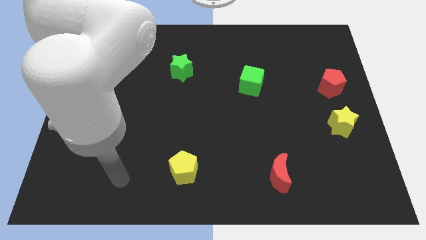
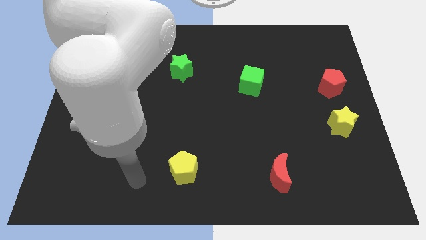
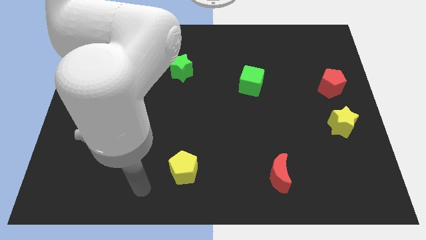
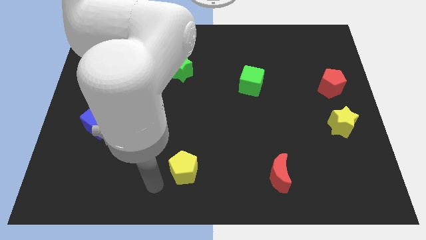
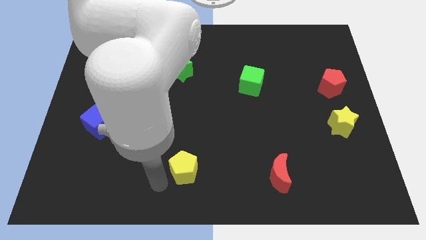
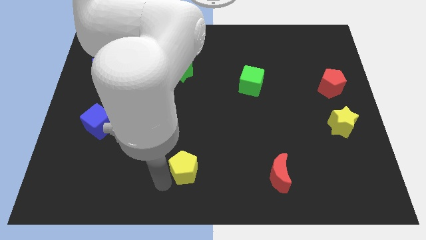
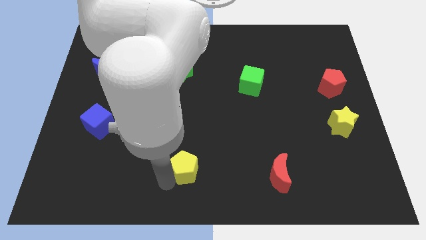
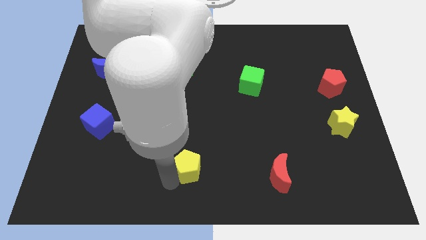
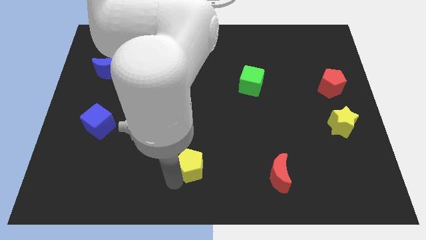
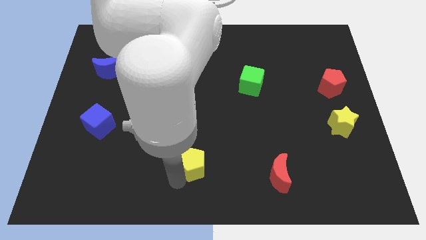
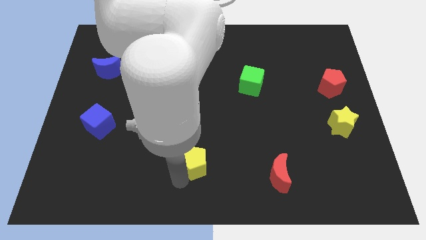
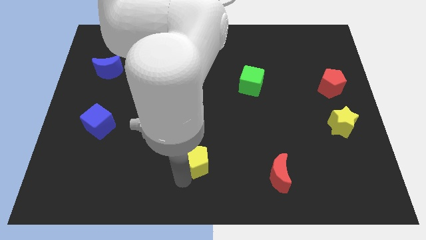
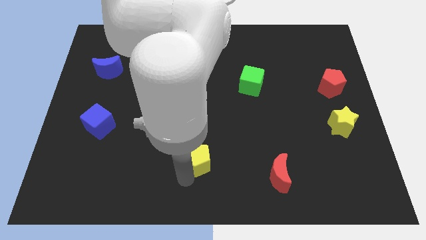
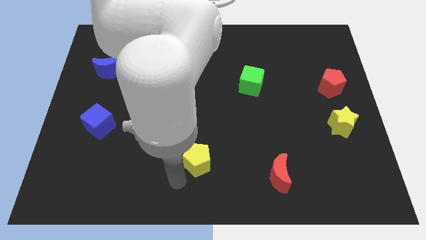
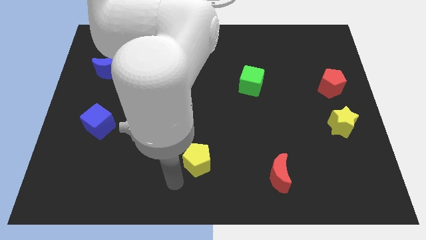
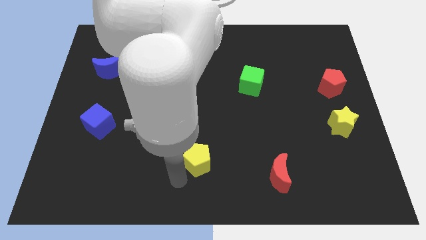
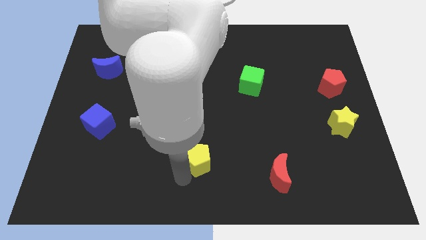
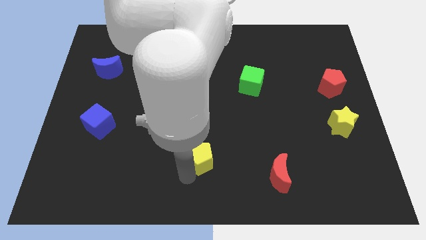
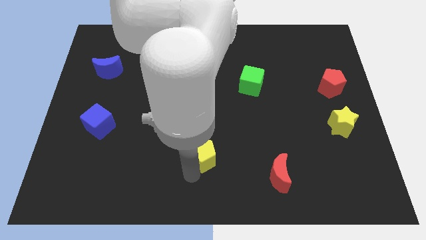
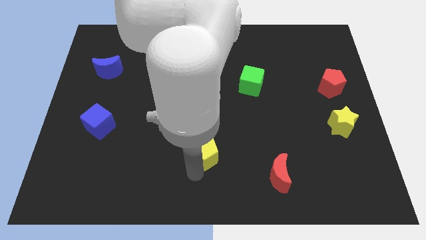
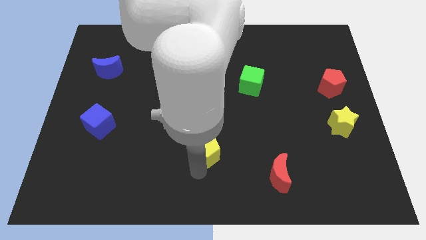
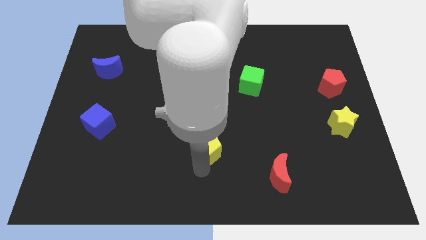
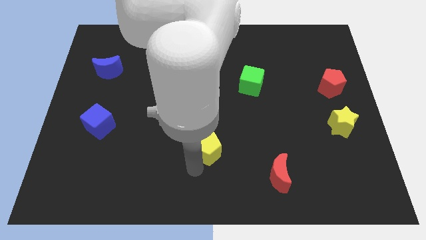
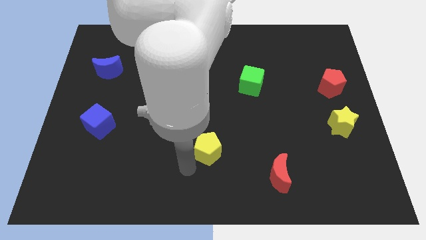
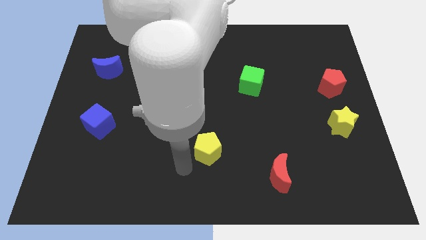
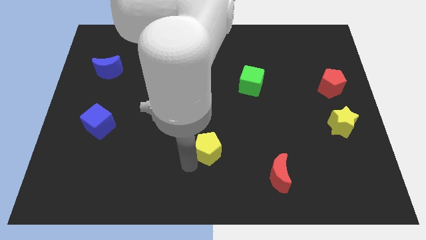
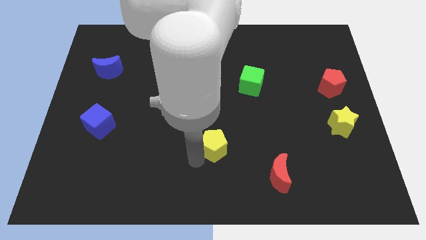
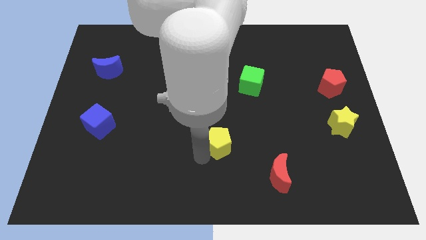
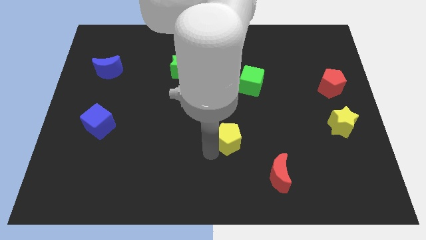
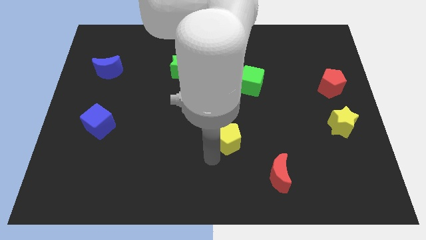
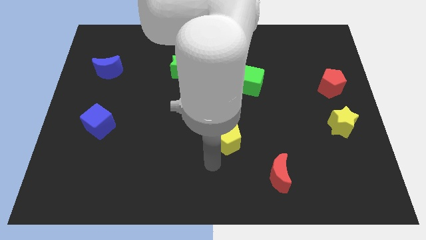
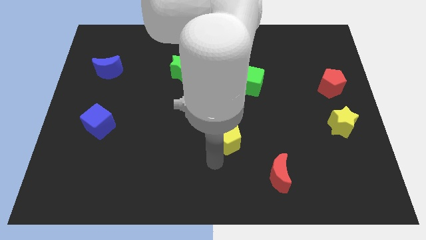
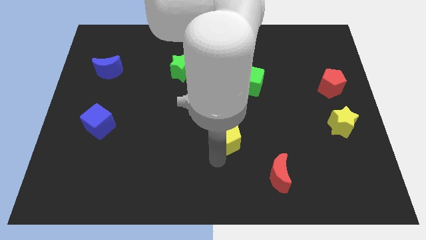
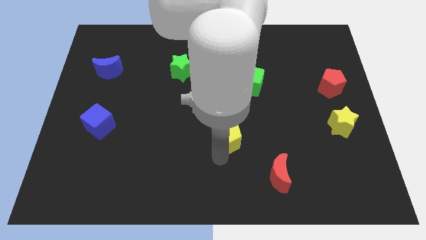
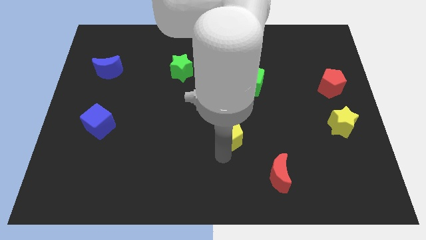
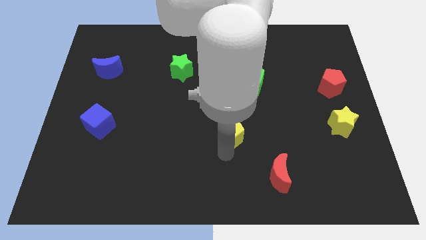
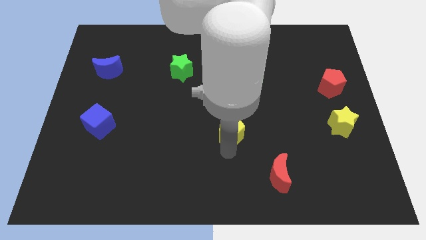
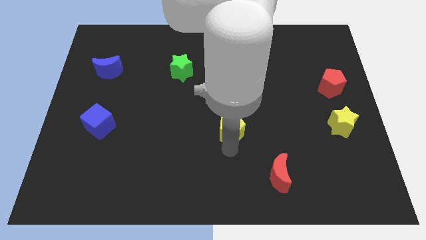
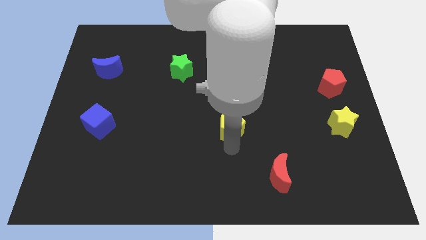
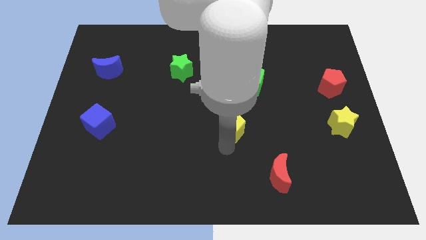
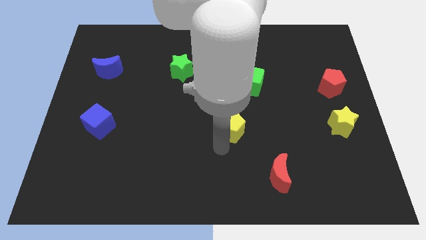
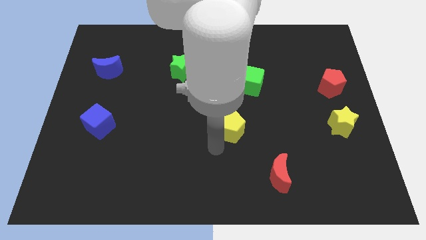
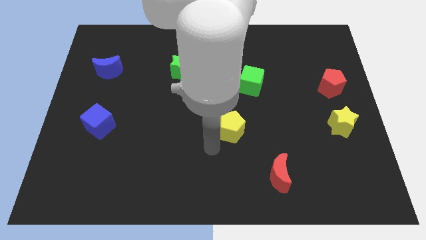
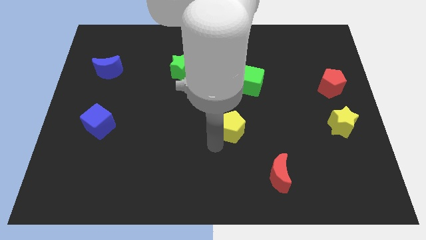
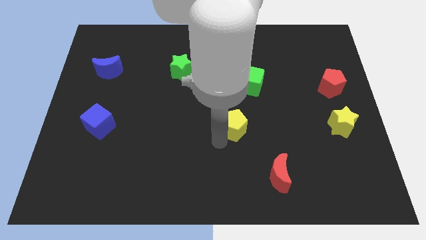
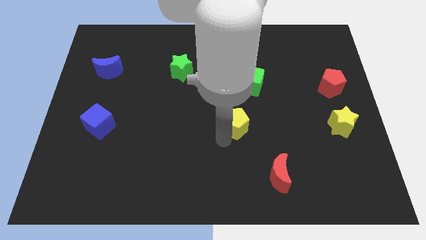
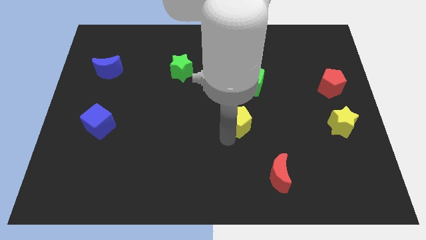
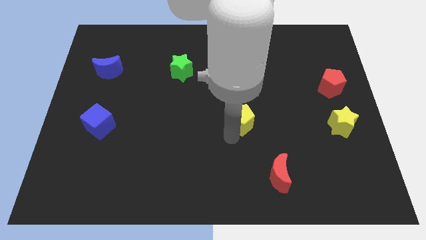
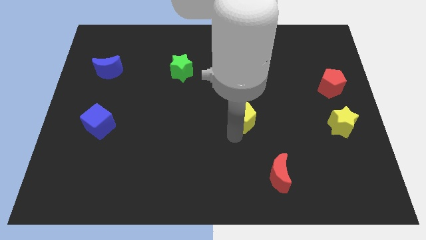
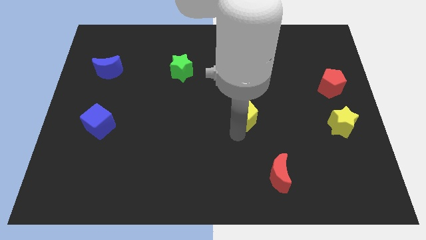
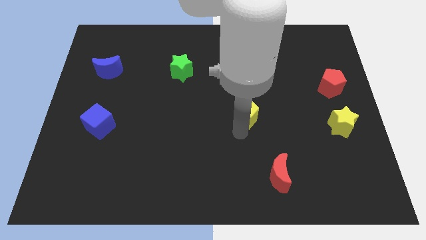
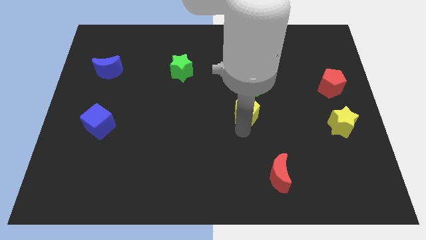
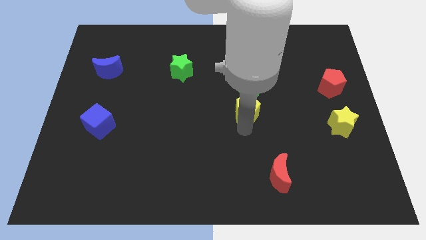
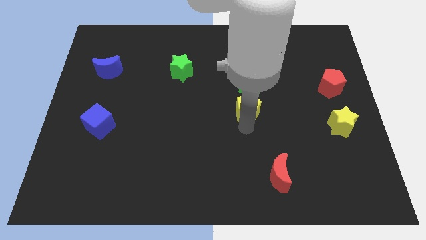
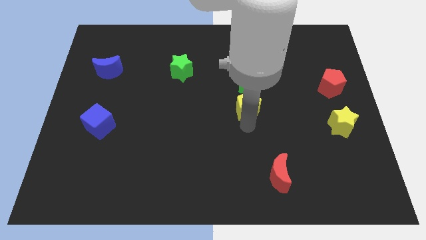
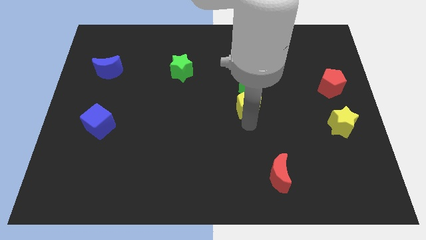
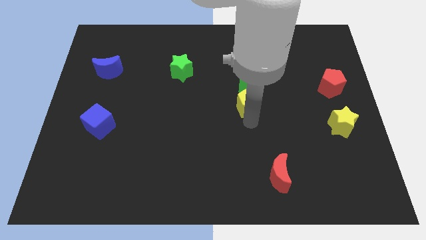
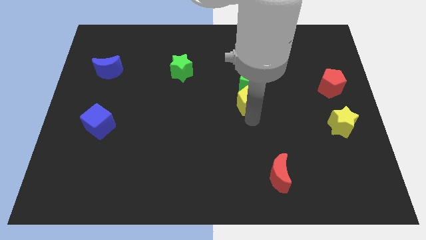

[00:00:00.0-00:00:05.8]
slide the yellow pentagon to the green cube

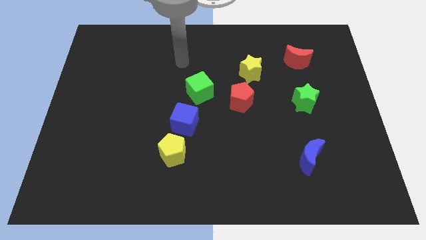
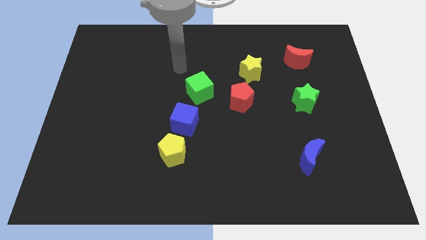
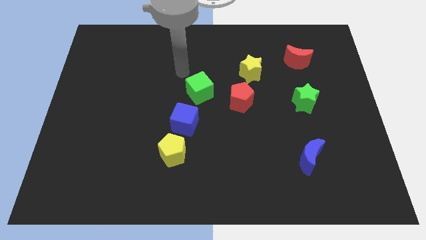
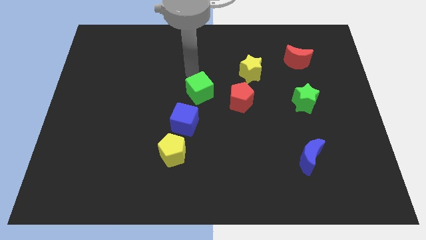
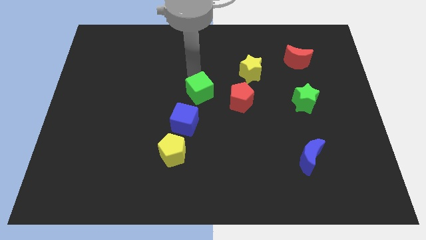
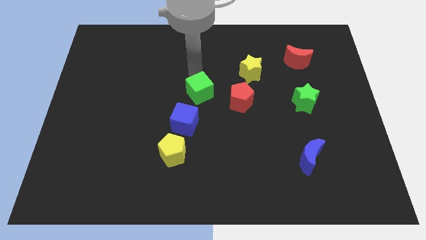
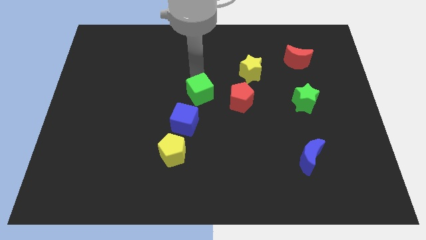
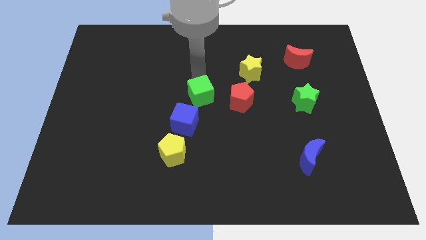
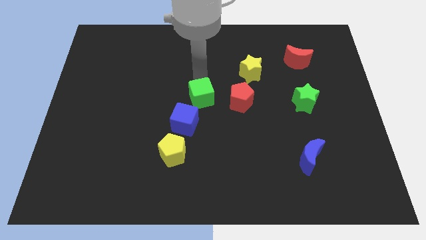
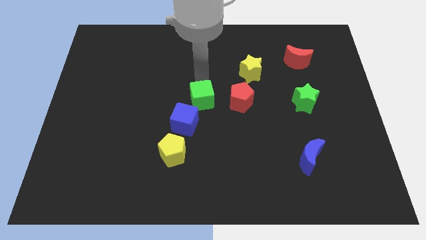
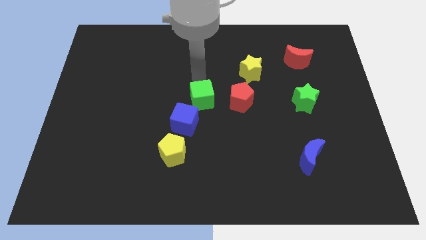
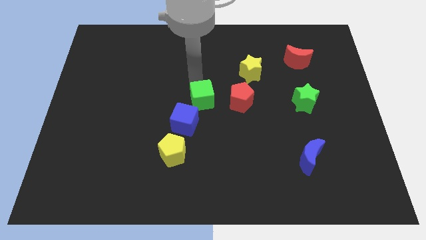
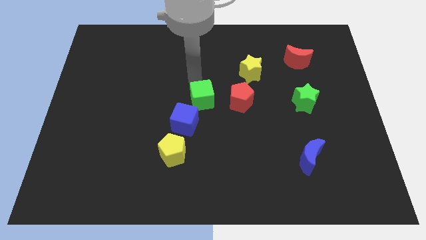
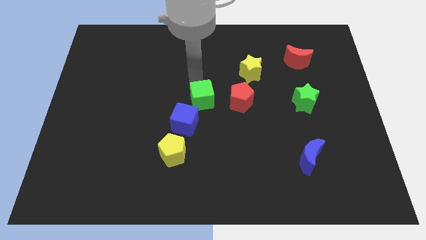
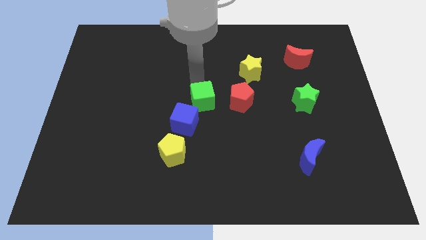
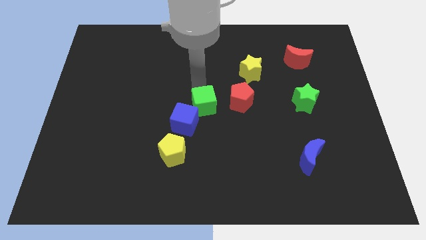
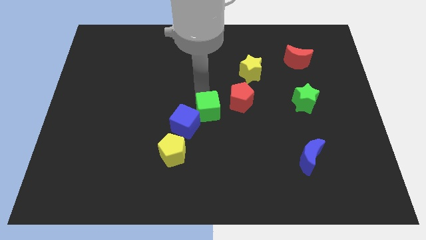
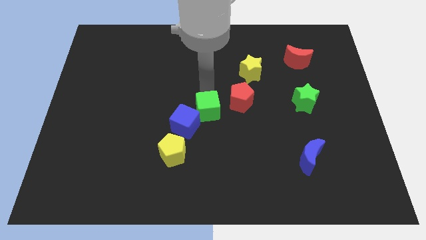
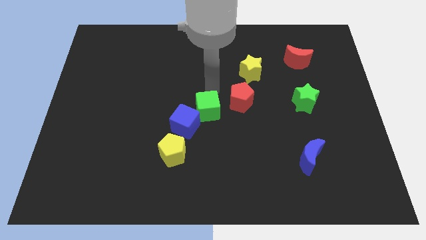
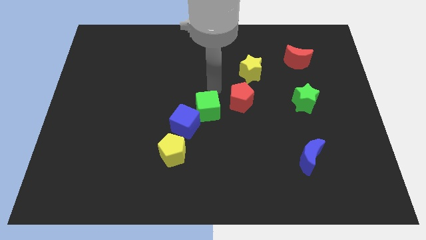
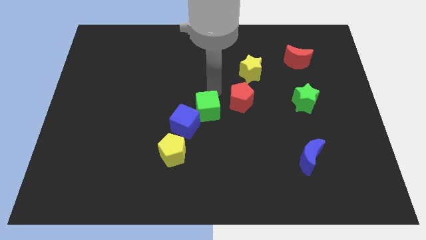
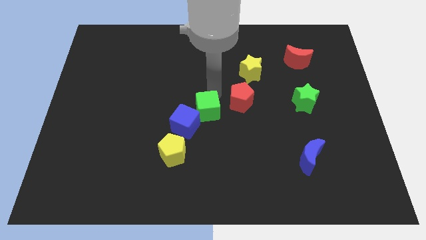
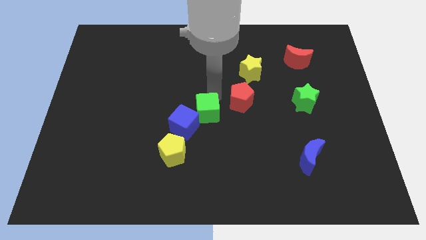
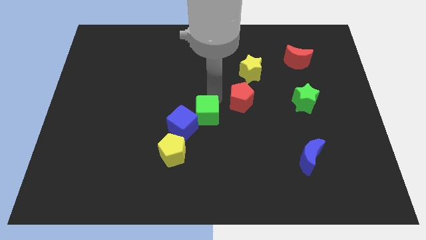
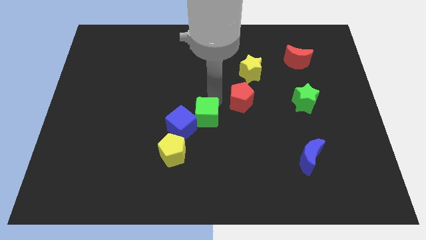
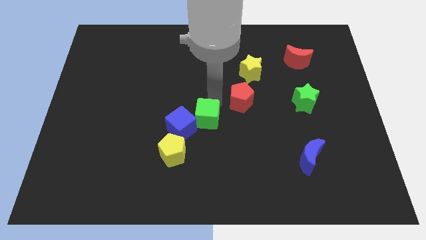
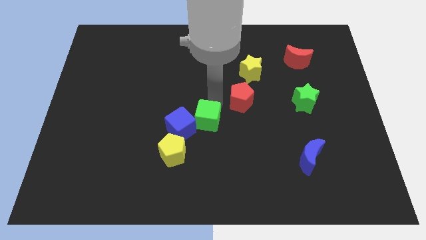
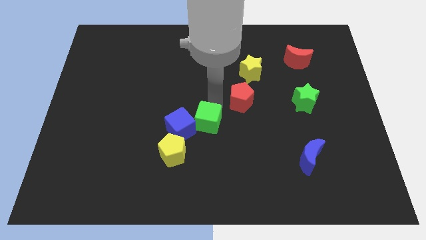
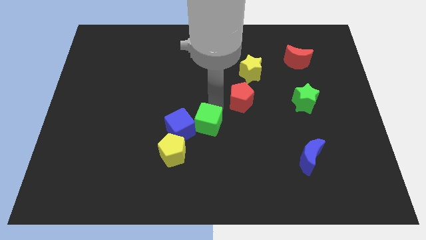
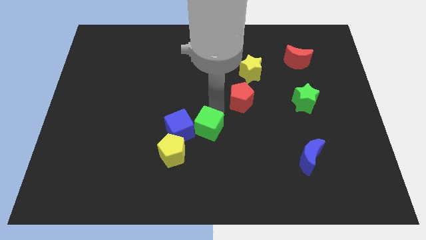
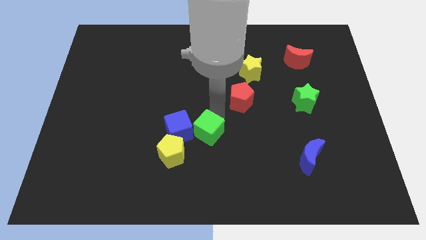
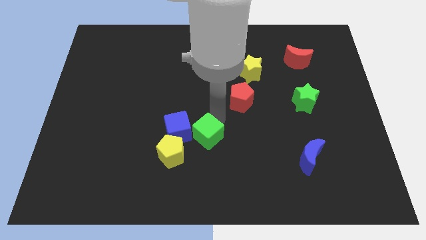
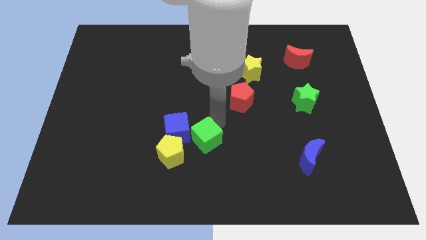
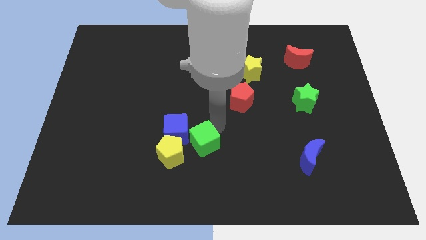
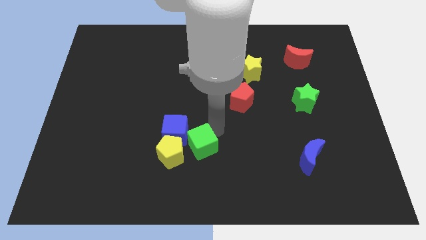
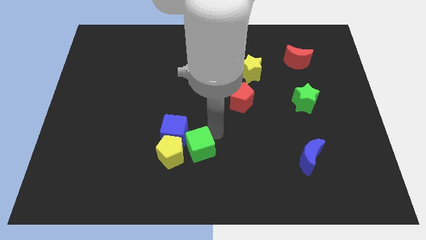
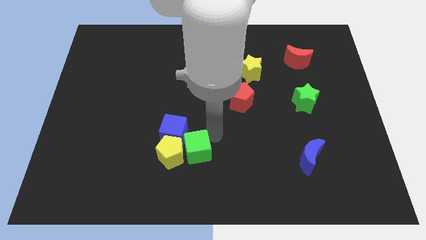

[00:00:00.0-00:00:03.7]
put the green cube next to the yellow pentagon
